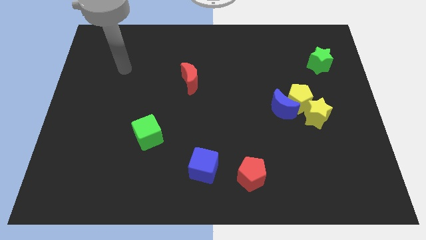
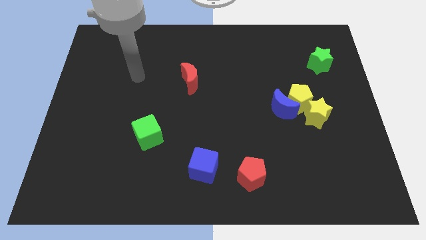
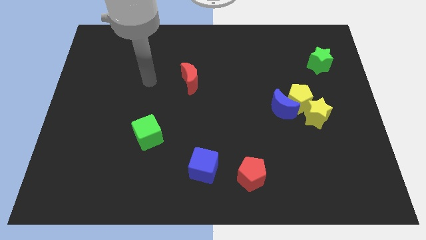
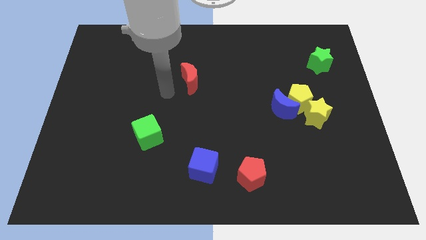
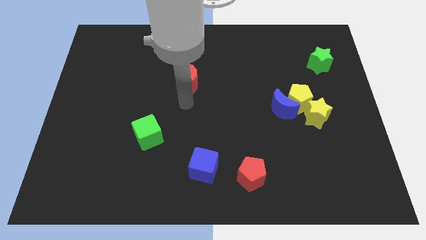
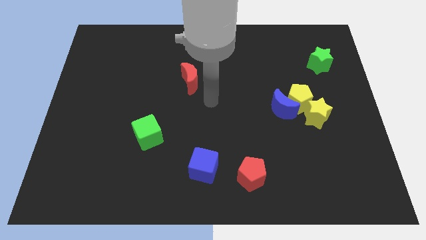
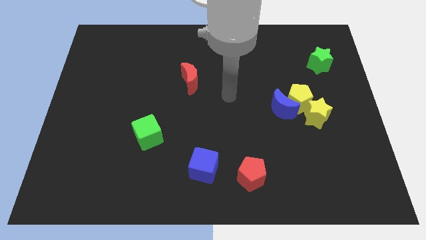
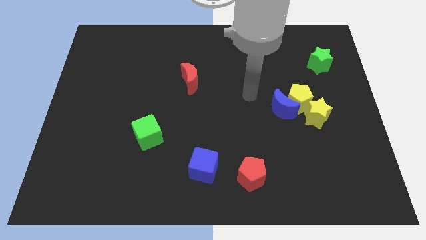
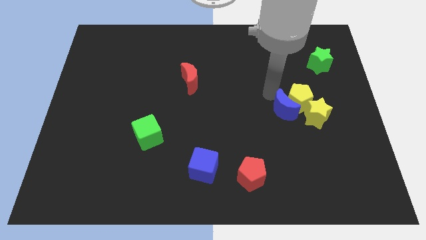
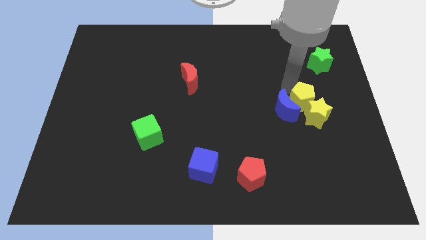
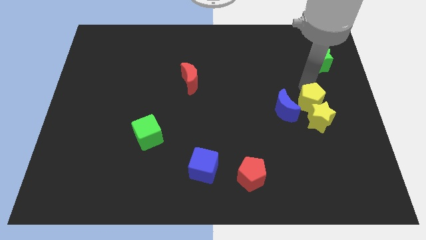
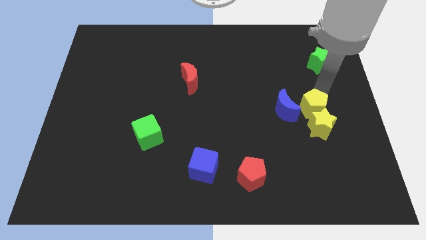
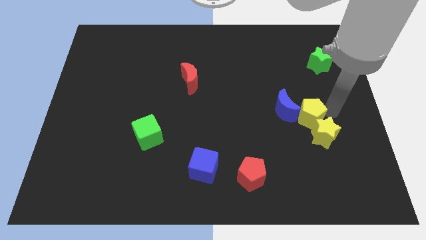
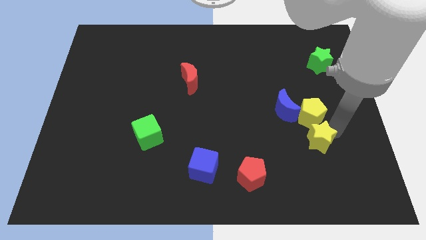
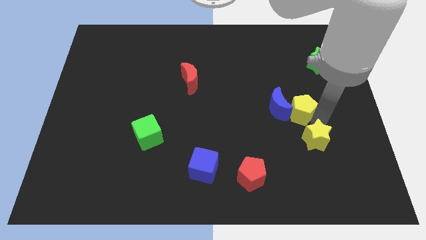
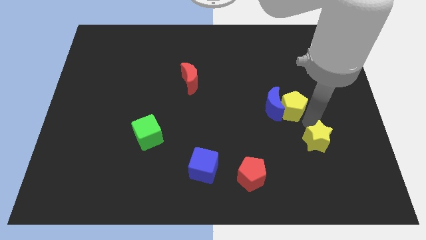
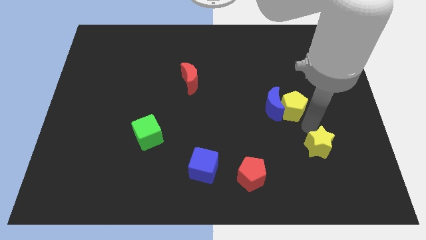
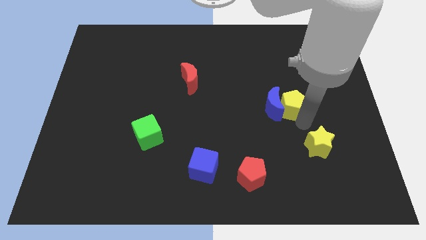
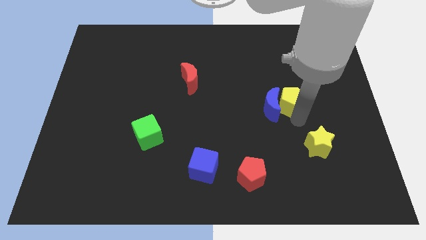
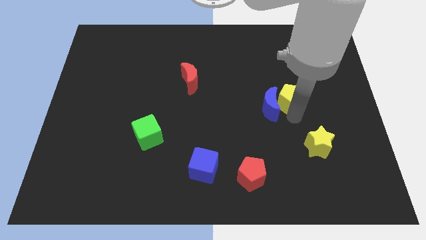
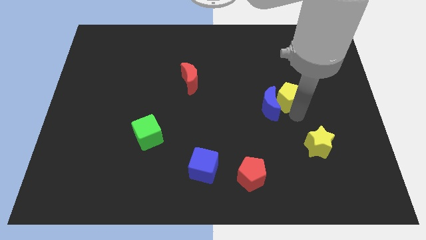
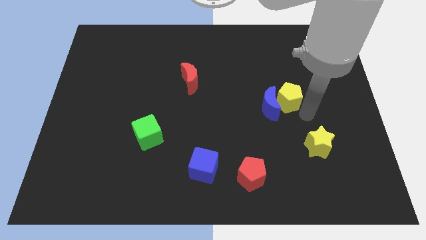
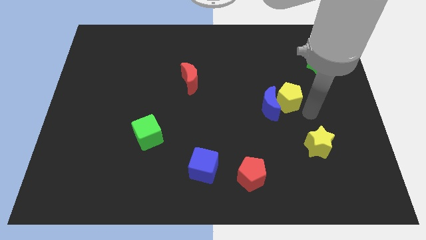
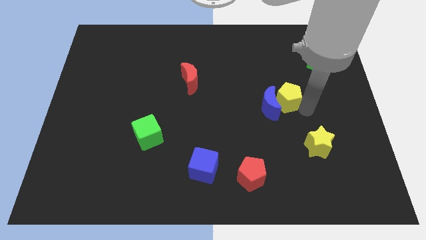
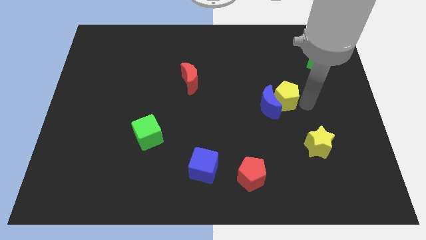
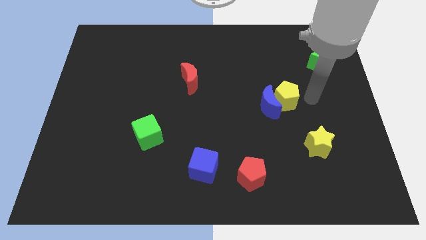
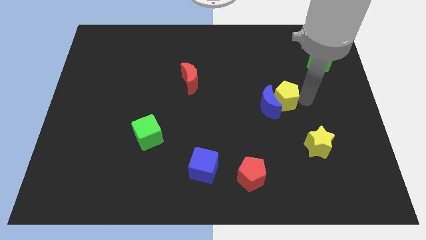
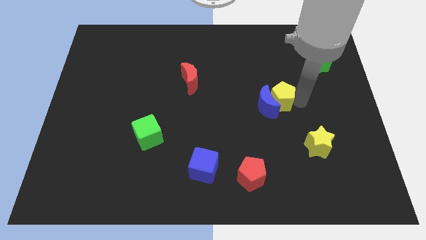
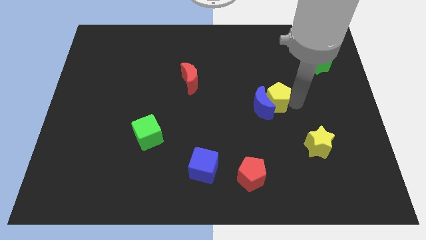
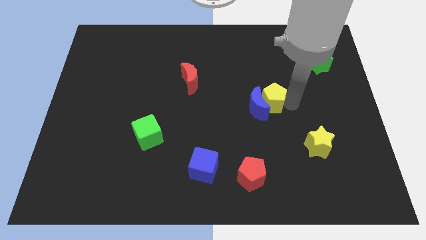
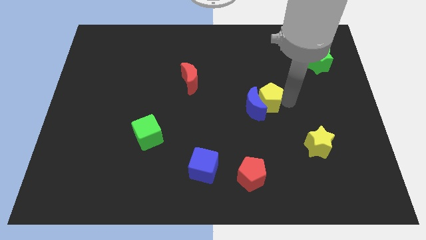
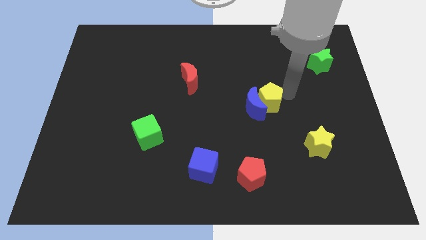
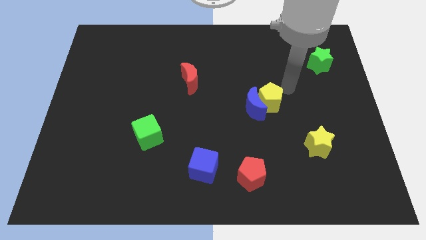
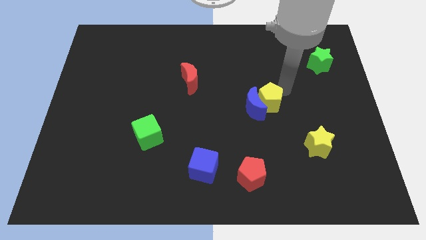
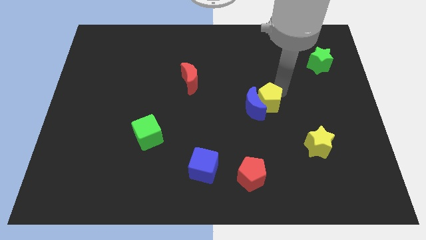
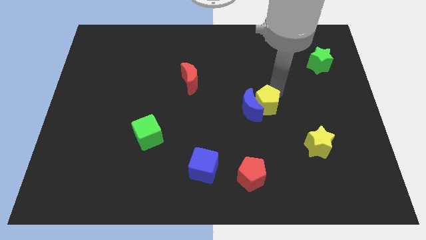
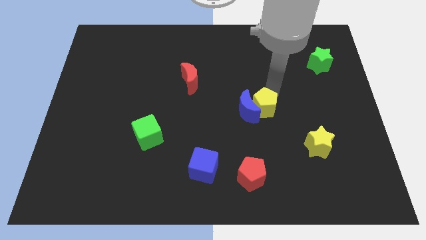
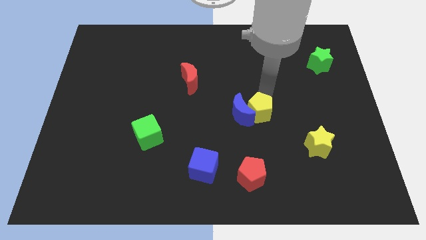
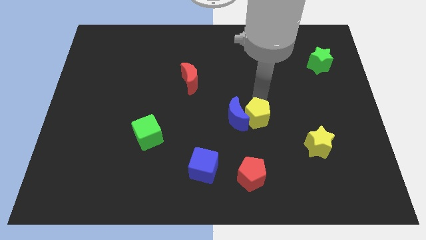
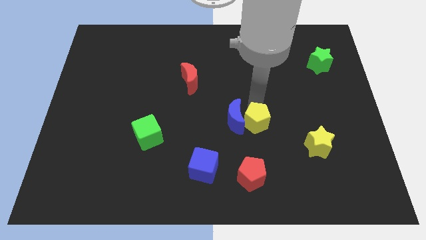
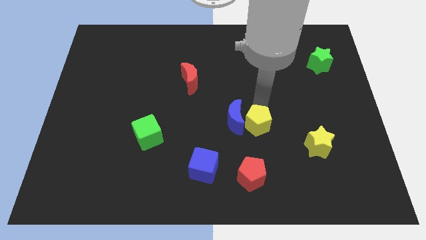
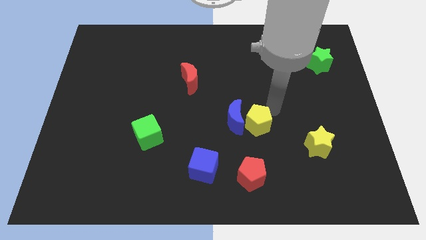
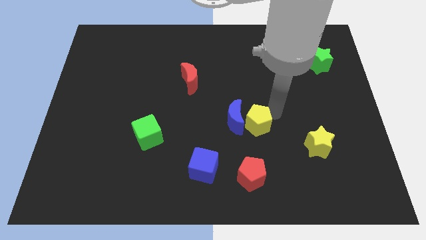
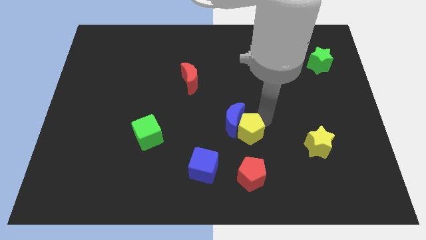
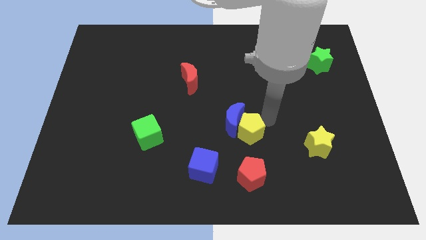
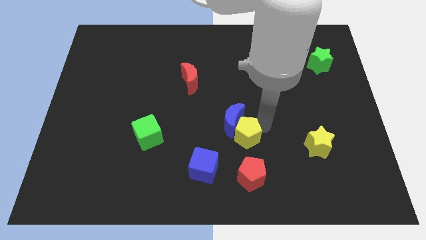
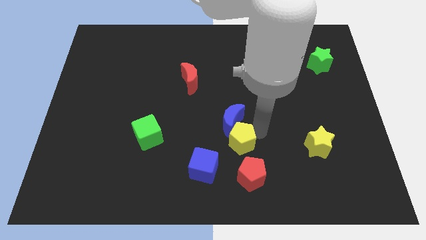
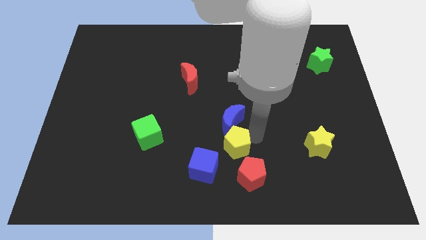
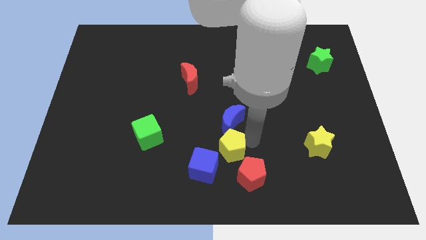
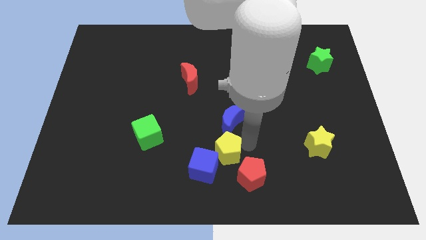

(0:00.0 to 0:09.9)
slide the yellow pentagon towards the blue cube

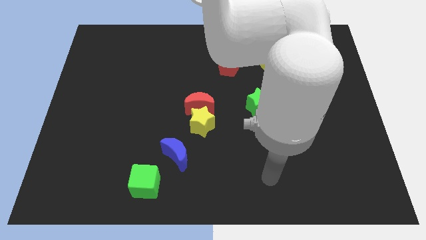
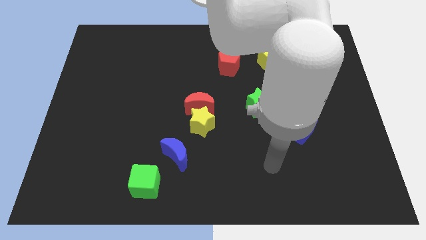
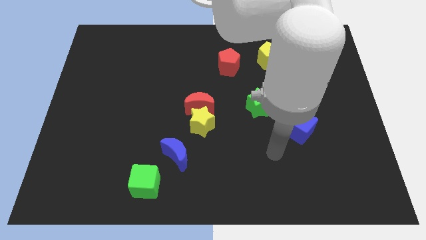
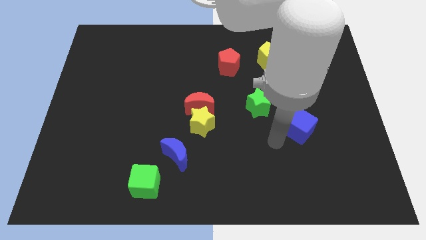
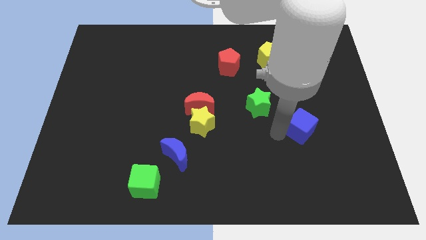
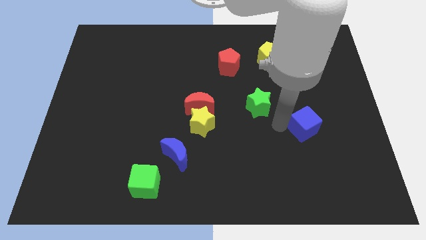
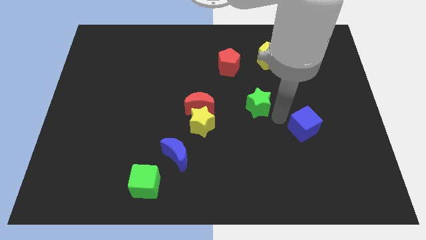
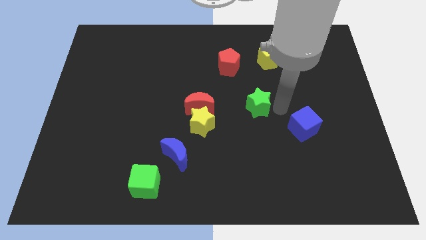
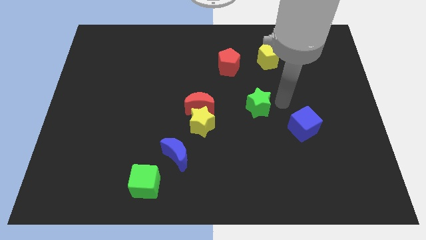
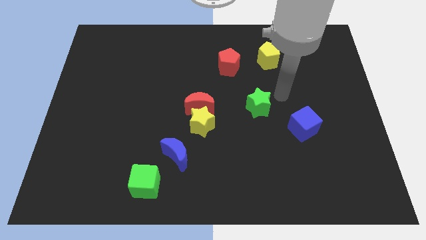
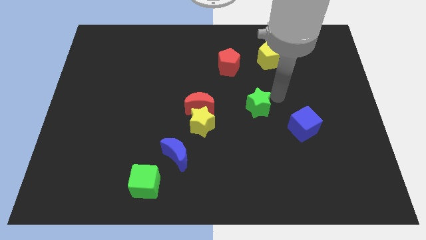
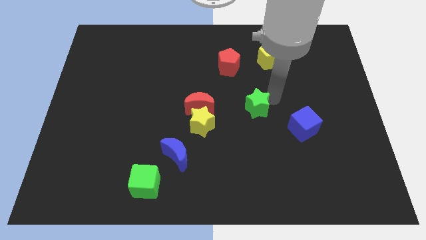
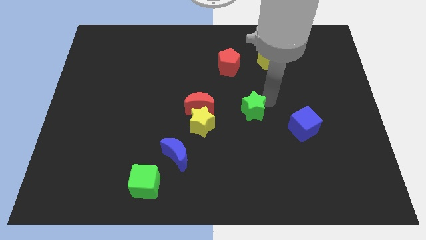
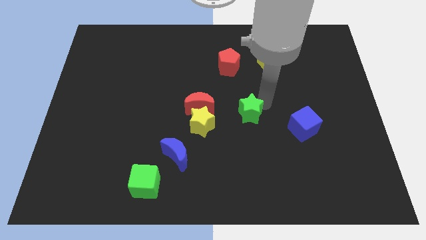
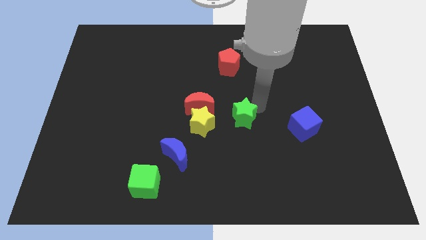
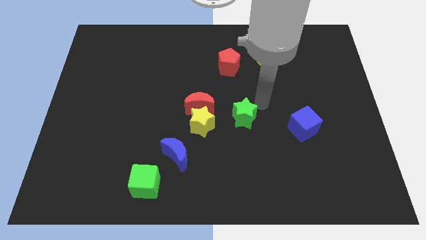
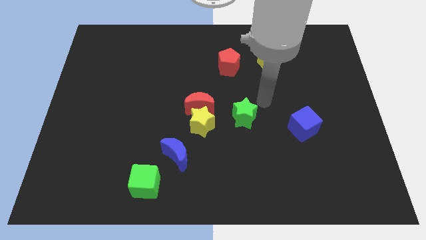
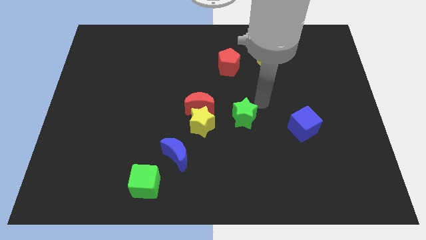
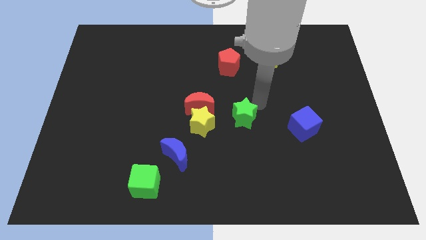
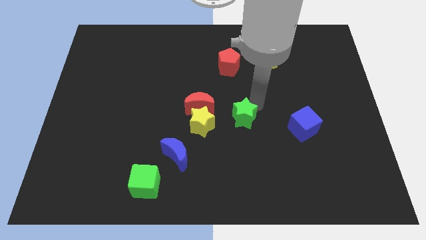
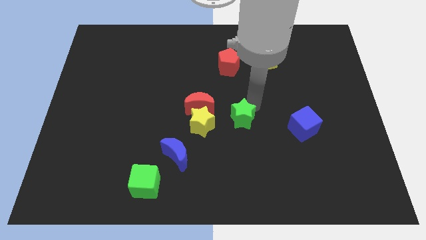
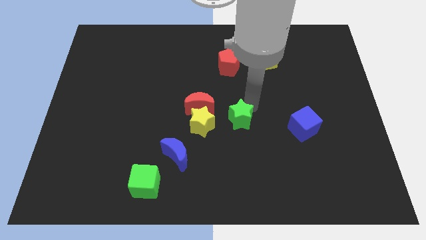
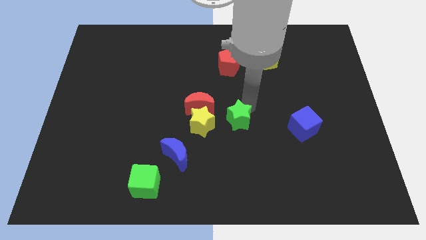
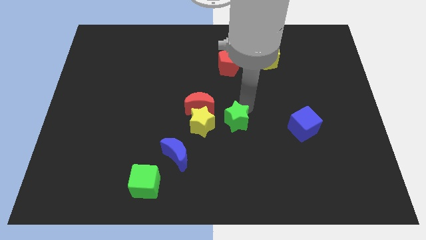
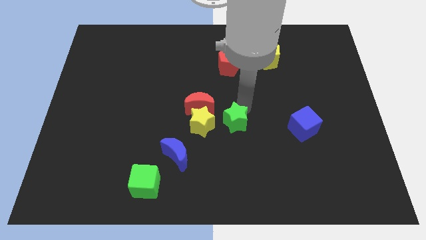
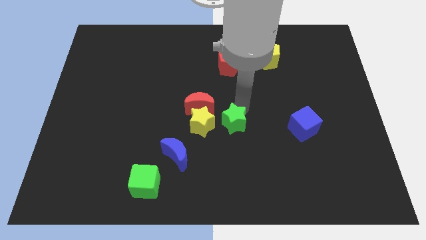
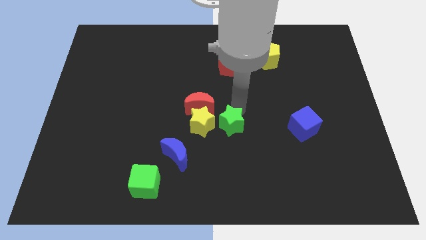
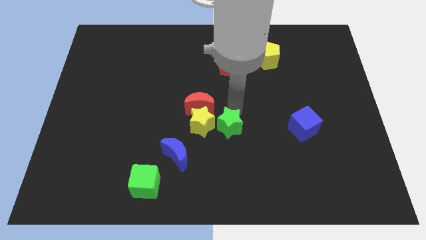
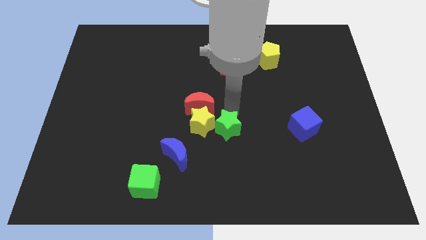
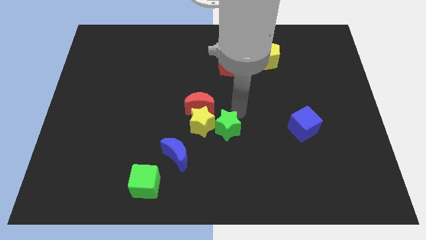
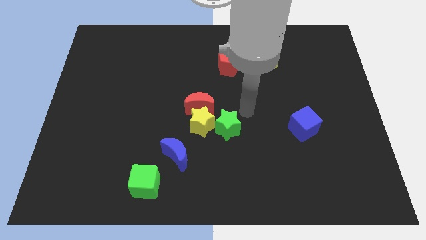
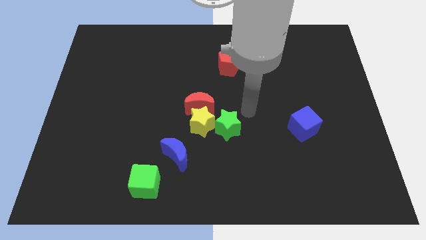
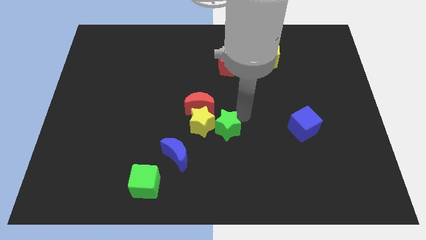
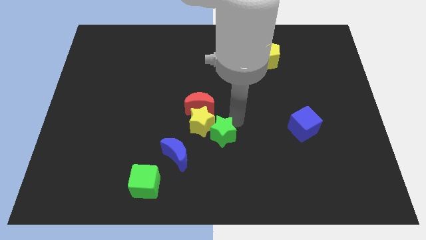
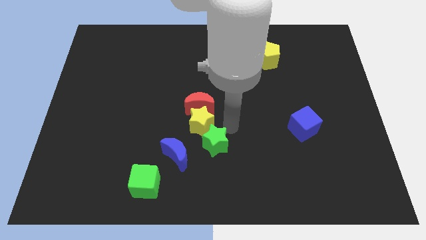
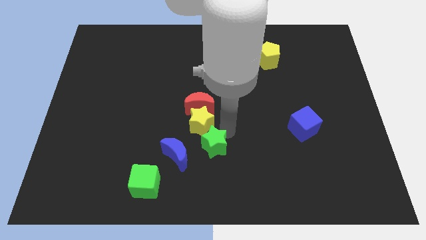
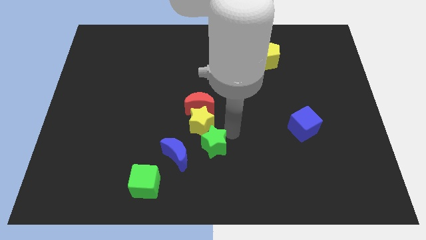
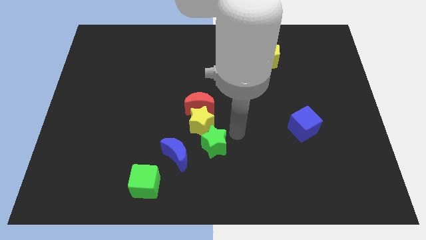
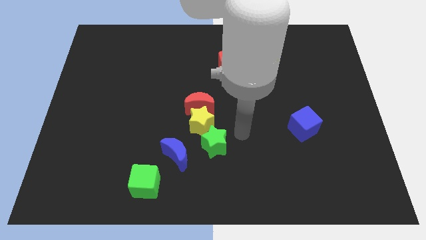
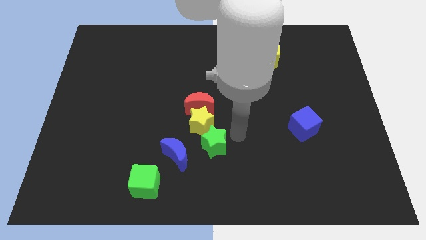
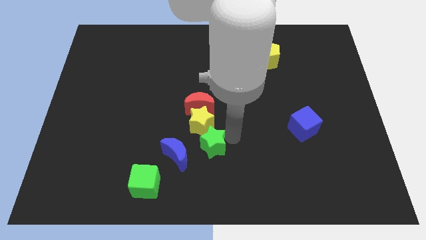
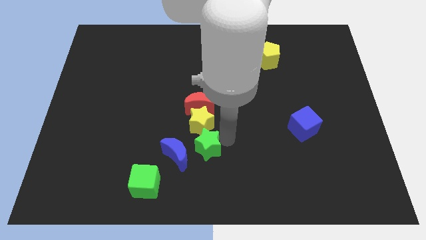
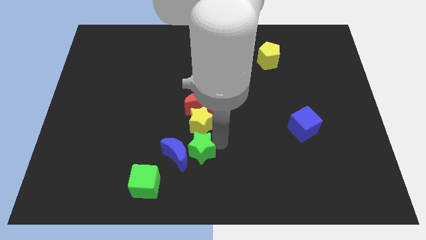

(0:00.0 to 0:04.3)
slide the green star next to the blue moon
